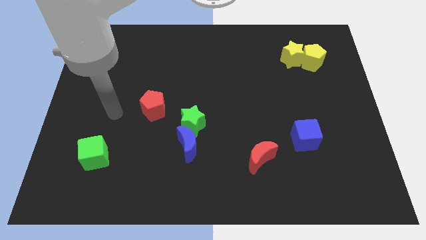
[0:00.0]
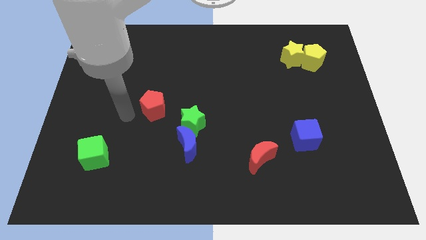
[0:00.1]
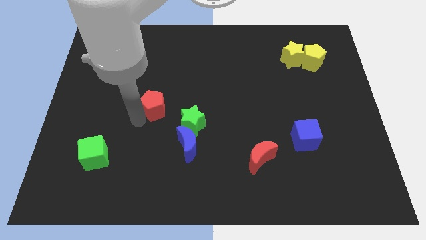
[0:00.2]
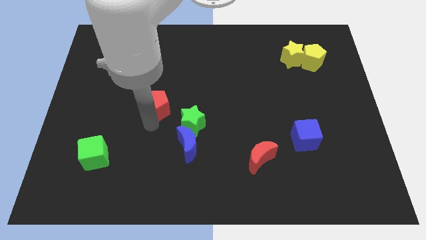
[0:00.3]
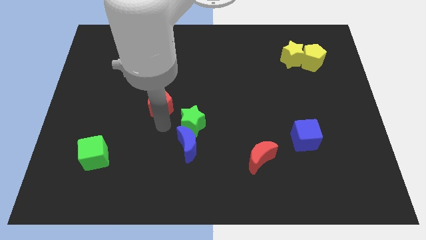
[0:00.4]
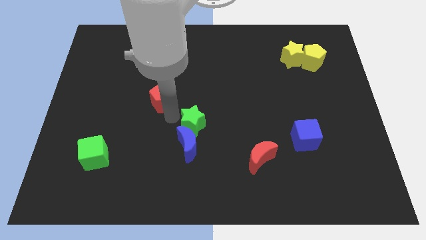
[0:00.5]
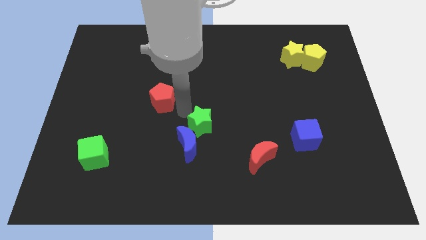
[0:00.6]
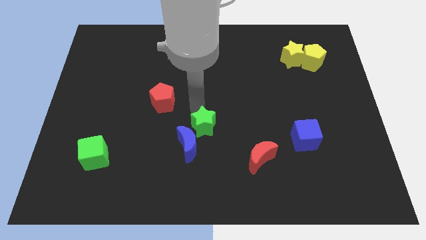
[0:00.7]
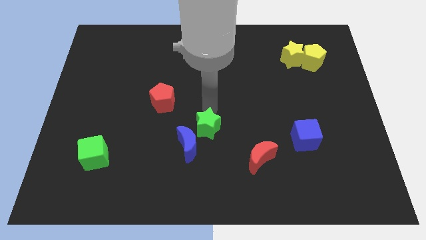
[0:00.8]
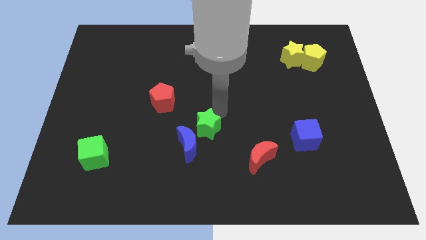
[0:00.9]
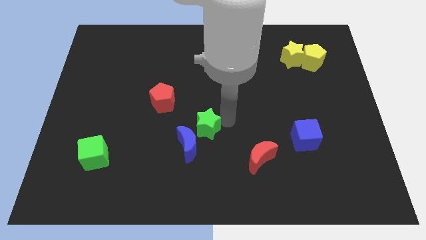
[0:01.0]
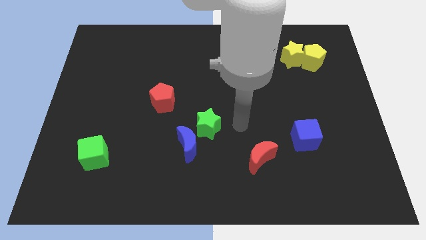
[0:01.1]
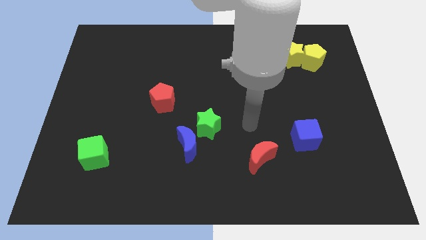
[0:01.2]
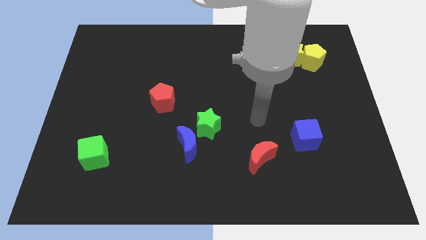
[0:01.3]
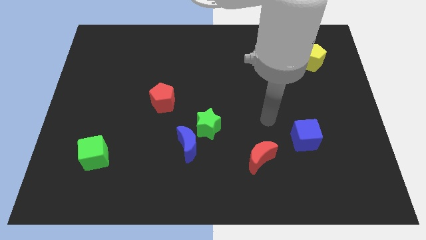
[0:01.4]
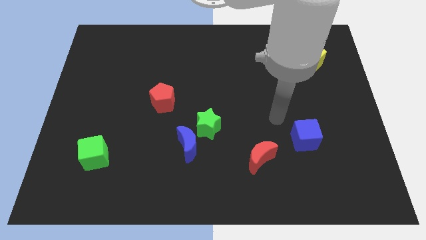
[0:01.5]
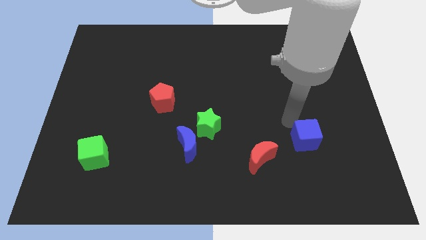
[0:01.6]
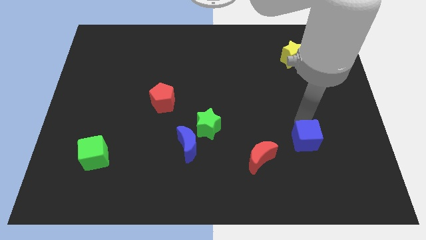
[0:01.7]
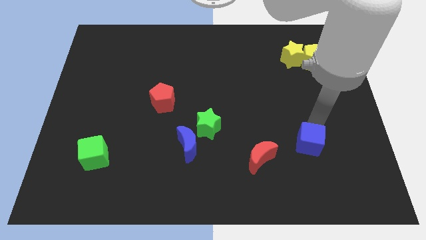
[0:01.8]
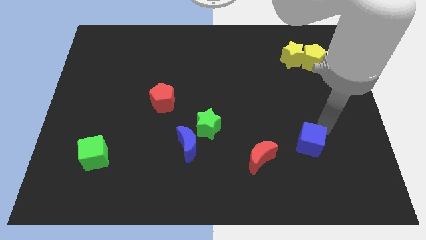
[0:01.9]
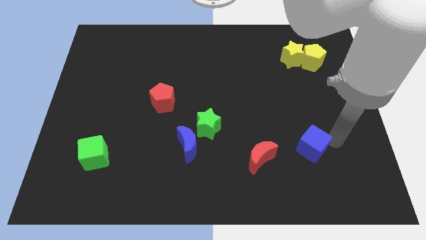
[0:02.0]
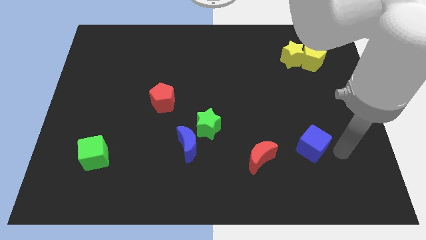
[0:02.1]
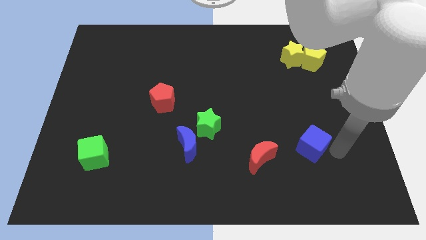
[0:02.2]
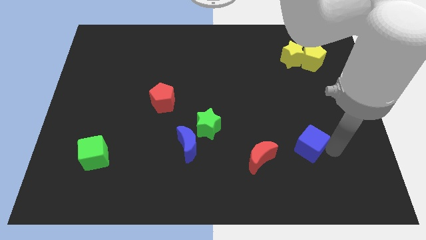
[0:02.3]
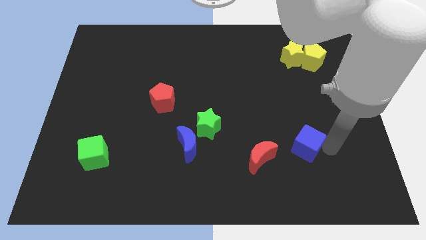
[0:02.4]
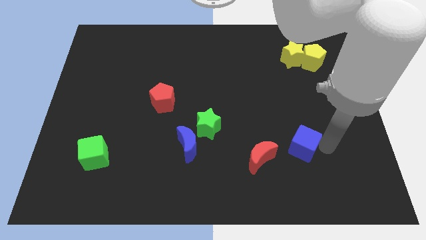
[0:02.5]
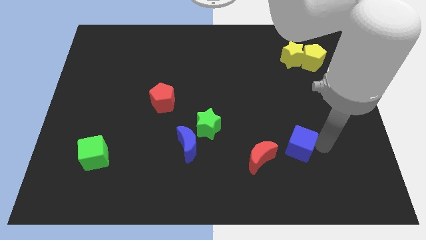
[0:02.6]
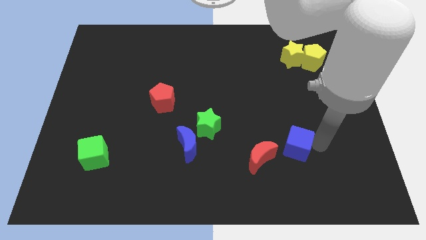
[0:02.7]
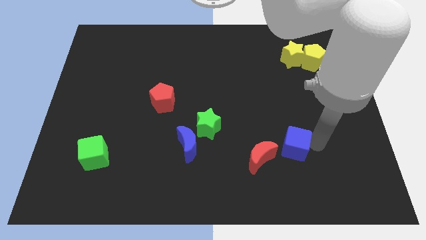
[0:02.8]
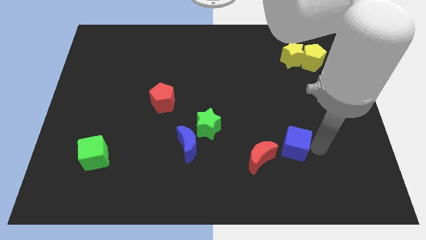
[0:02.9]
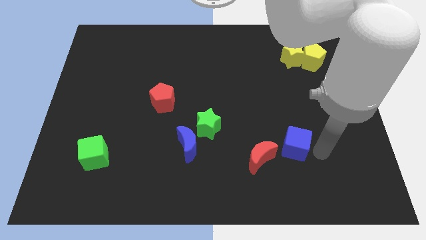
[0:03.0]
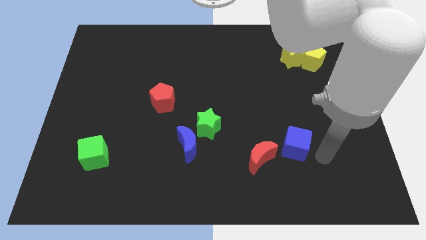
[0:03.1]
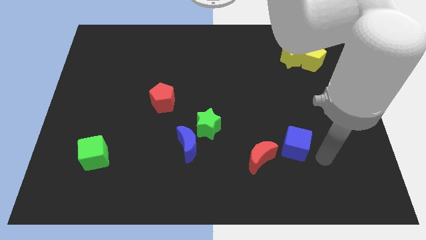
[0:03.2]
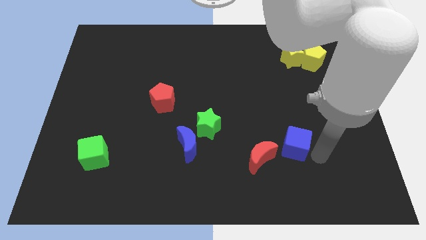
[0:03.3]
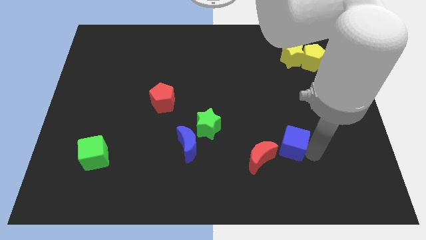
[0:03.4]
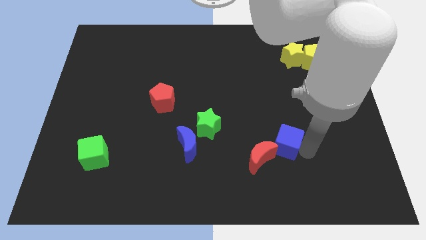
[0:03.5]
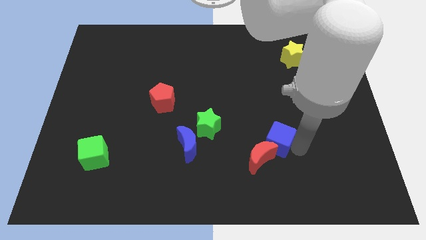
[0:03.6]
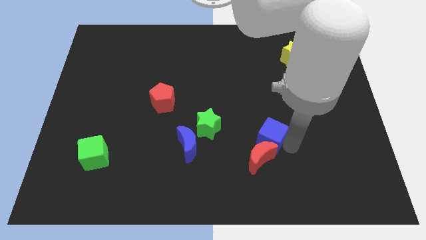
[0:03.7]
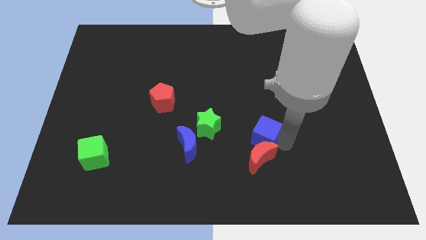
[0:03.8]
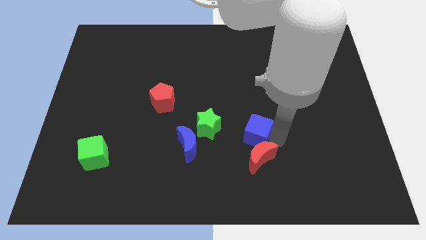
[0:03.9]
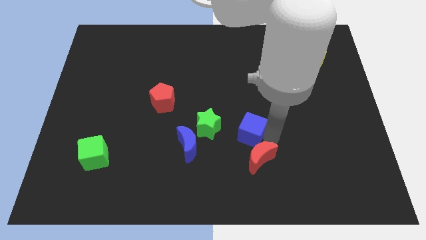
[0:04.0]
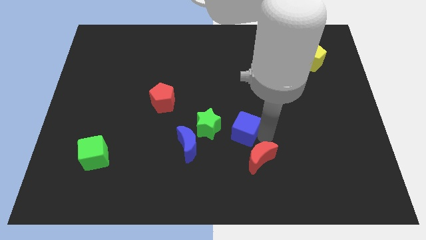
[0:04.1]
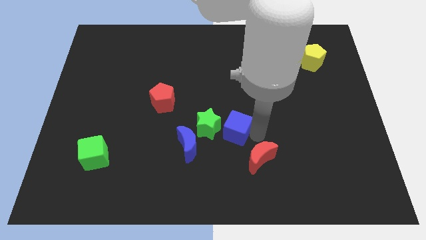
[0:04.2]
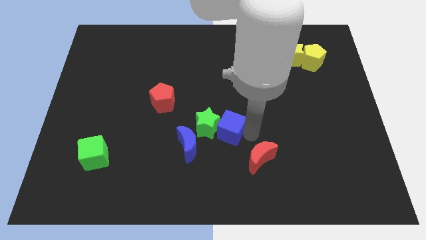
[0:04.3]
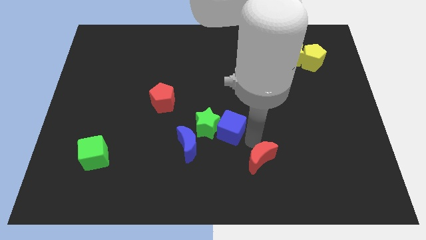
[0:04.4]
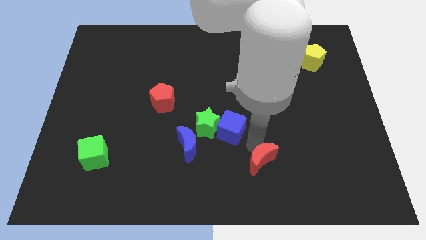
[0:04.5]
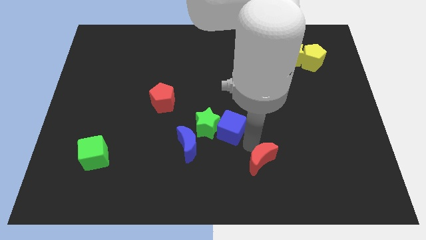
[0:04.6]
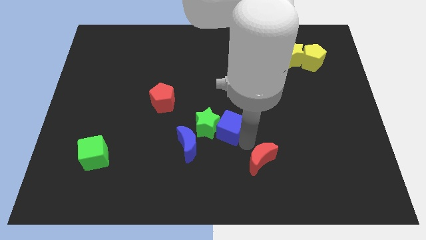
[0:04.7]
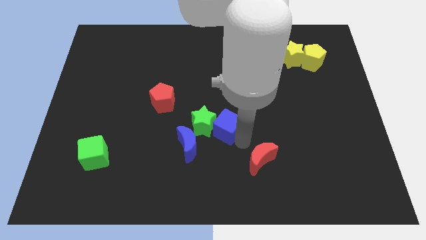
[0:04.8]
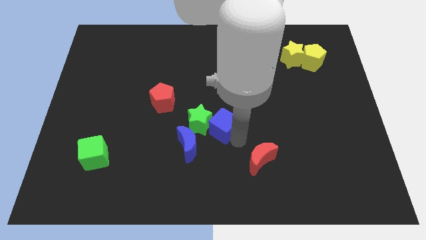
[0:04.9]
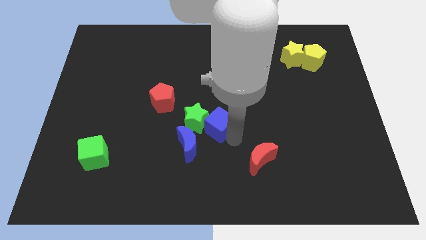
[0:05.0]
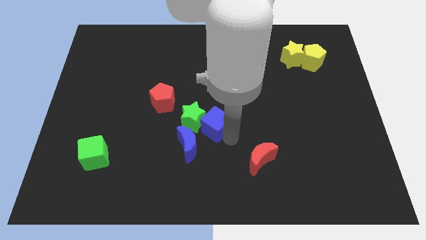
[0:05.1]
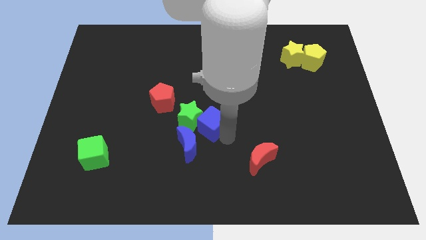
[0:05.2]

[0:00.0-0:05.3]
slide the blue cube left

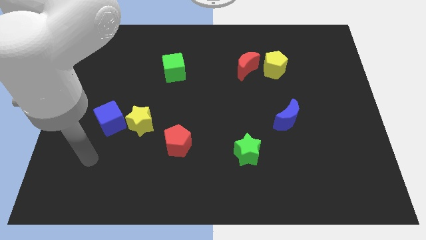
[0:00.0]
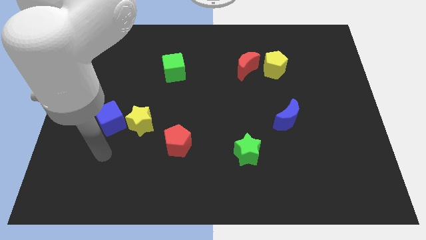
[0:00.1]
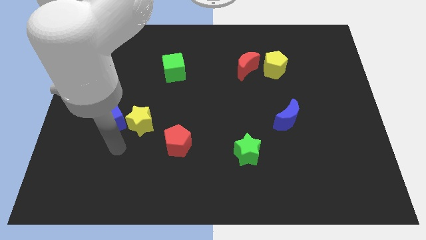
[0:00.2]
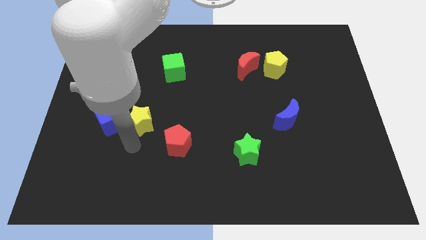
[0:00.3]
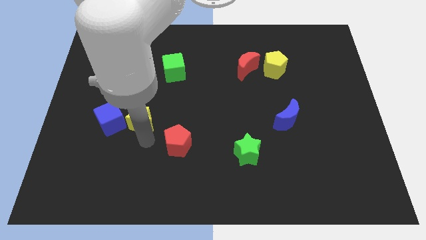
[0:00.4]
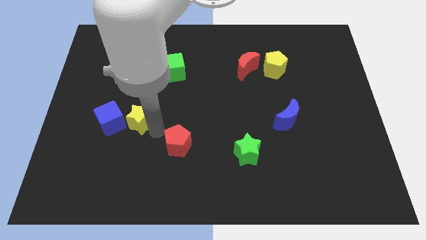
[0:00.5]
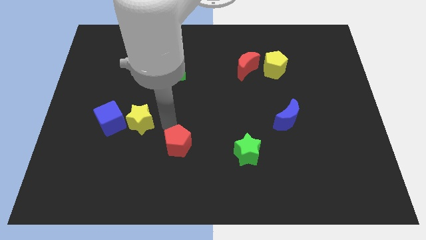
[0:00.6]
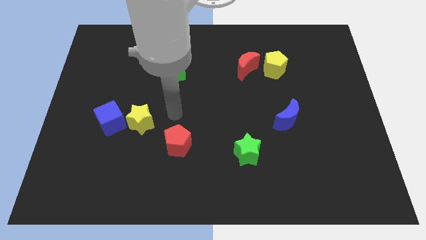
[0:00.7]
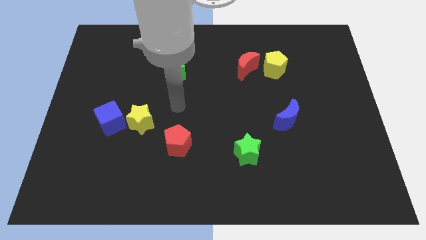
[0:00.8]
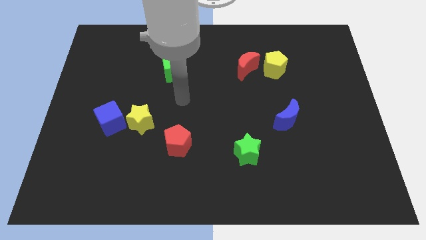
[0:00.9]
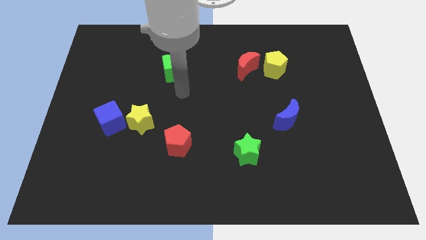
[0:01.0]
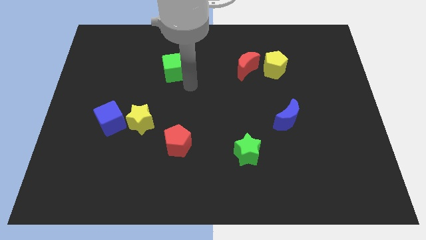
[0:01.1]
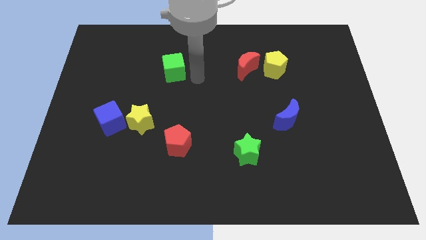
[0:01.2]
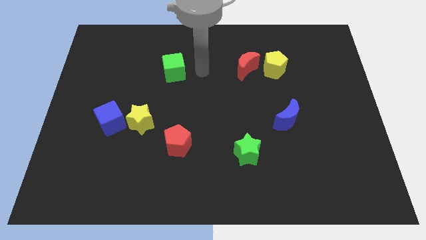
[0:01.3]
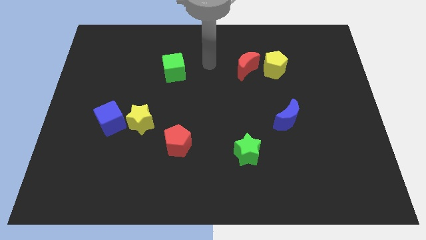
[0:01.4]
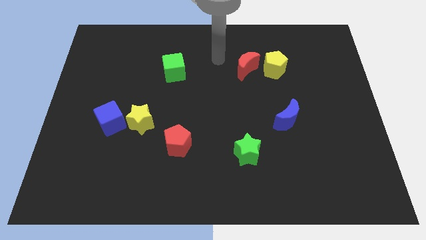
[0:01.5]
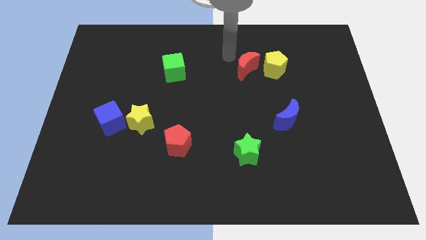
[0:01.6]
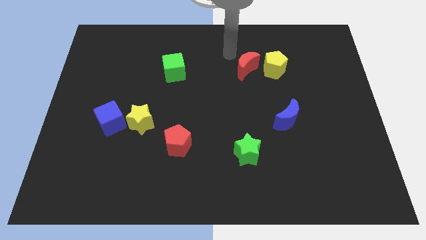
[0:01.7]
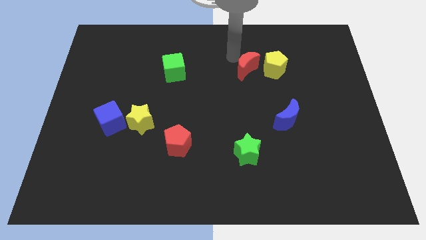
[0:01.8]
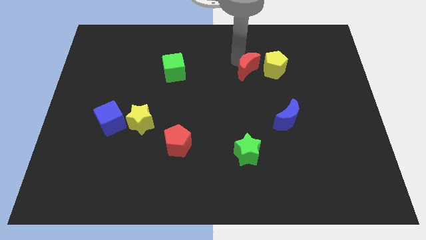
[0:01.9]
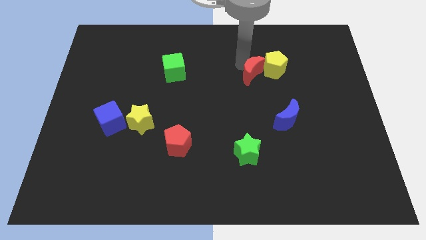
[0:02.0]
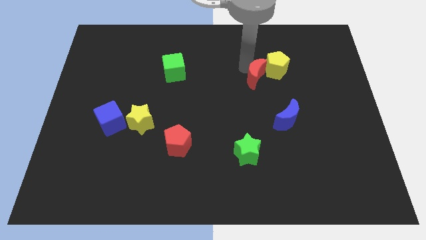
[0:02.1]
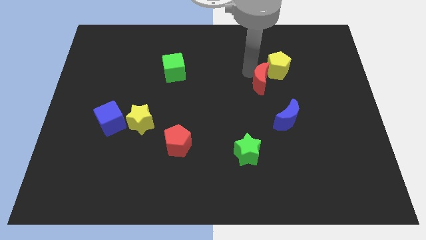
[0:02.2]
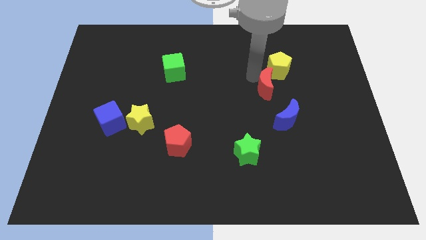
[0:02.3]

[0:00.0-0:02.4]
slide the red moon a little downwards and then right

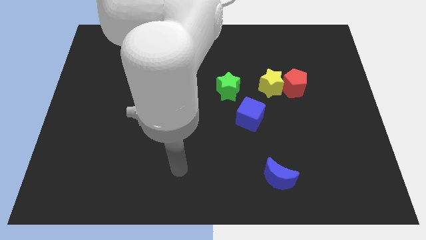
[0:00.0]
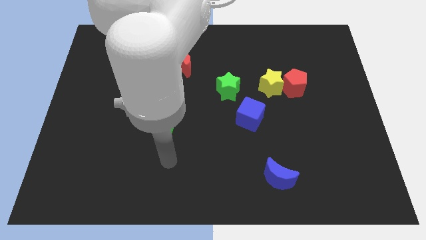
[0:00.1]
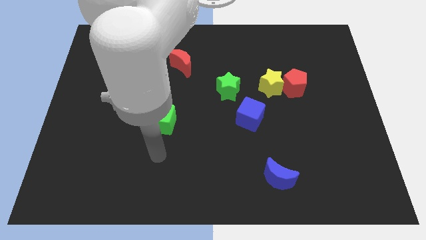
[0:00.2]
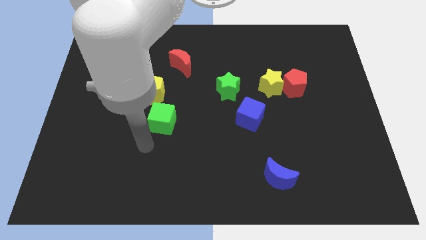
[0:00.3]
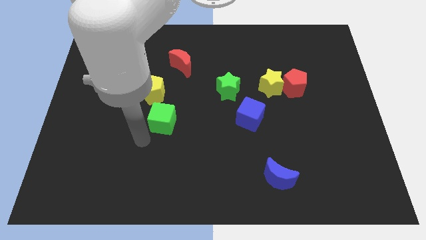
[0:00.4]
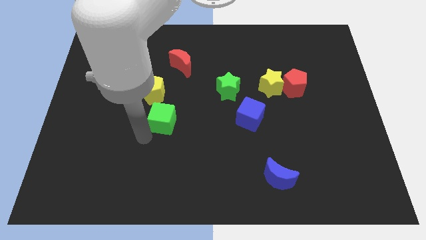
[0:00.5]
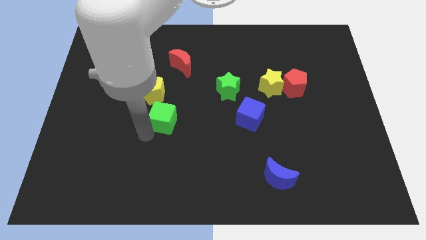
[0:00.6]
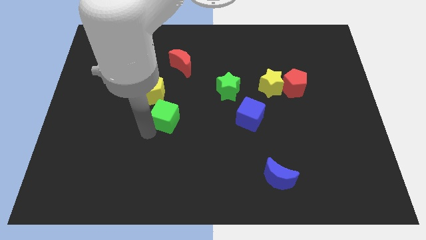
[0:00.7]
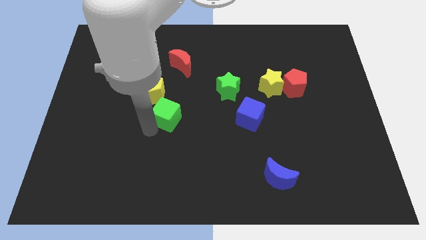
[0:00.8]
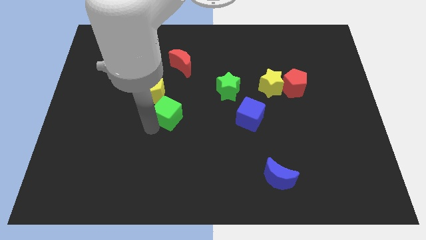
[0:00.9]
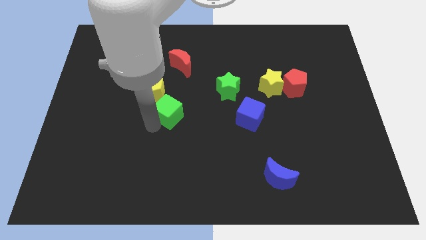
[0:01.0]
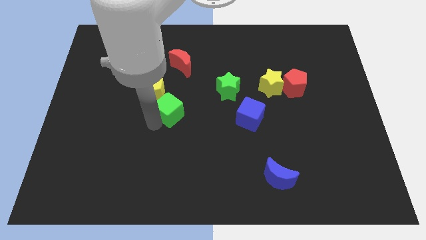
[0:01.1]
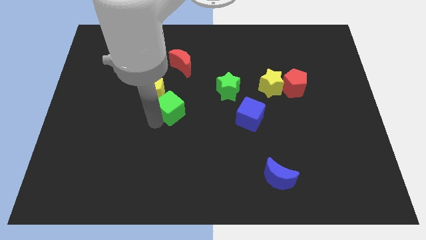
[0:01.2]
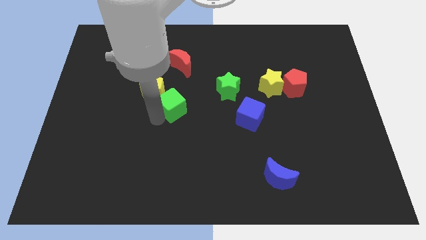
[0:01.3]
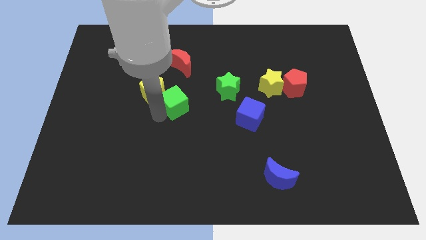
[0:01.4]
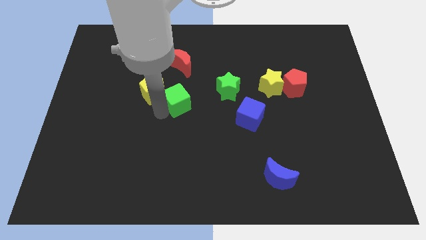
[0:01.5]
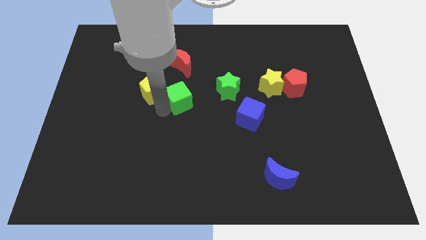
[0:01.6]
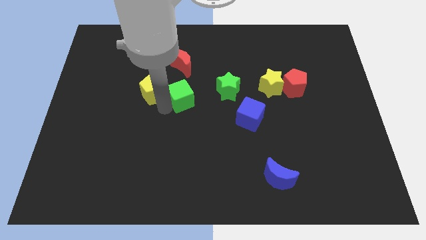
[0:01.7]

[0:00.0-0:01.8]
slightly push the green cube up and right diagonally
